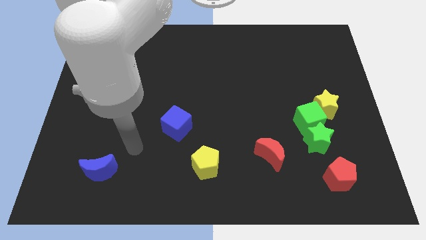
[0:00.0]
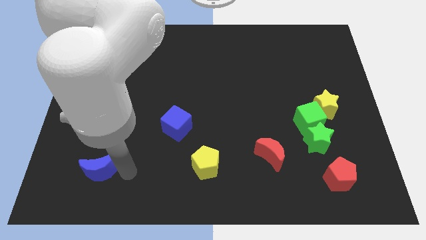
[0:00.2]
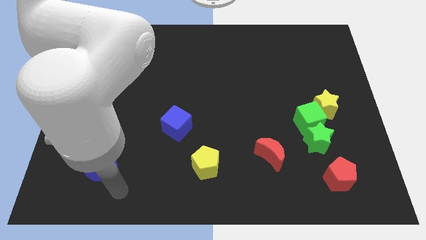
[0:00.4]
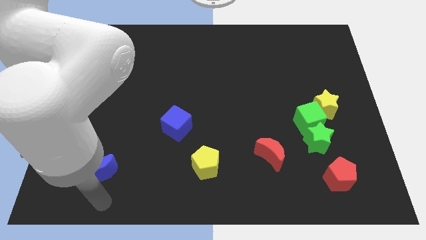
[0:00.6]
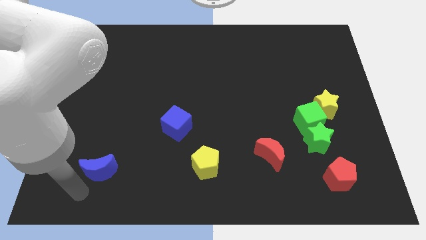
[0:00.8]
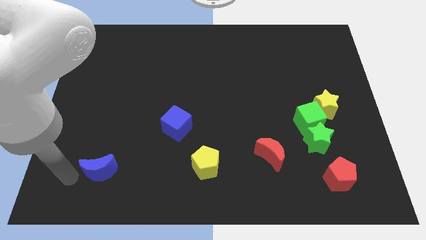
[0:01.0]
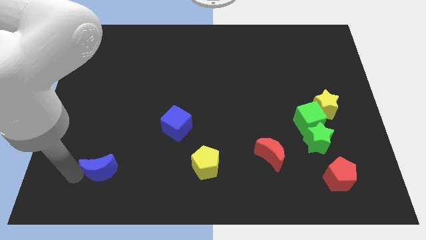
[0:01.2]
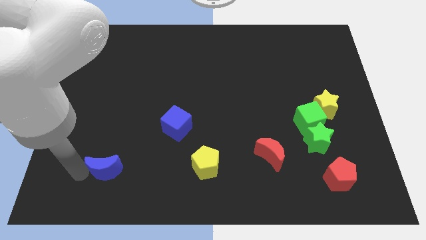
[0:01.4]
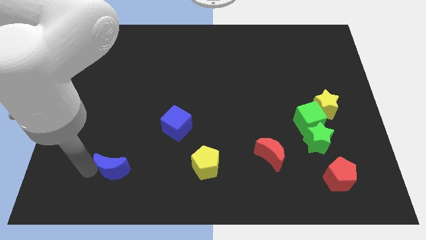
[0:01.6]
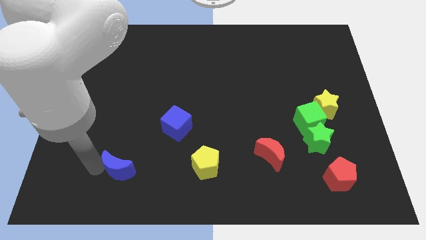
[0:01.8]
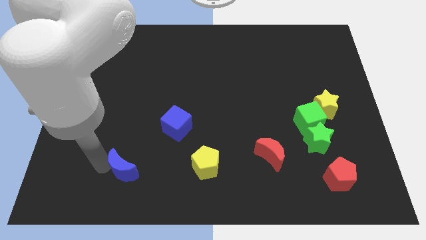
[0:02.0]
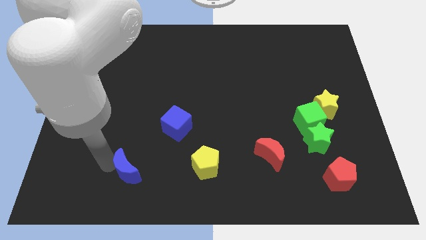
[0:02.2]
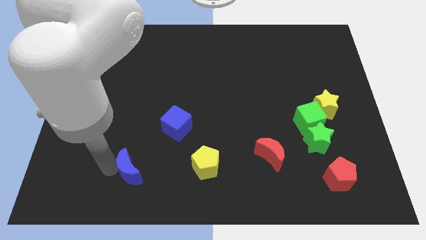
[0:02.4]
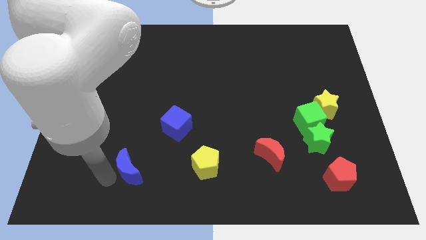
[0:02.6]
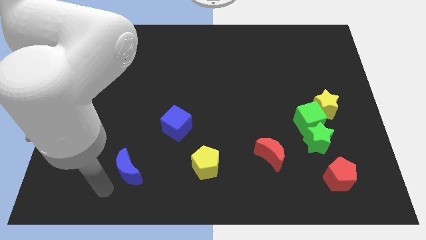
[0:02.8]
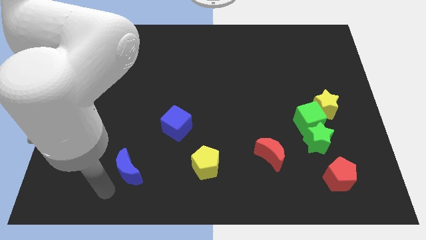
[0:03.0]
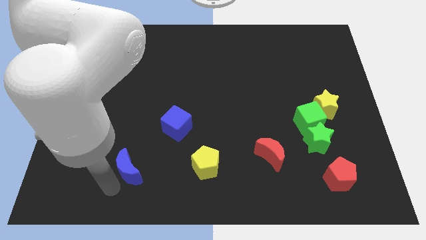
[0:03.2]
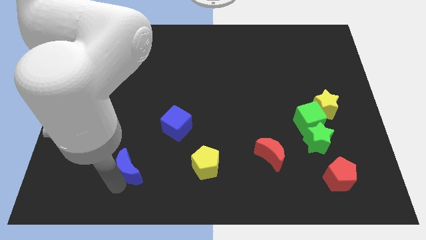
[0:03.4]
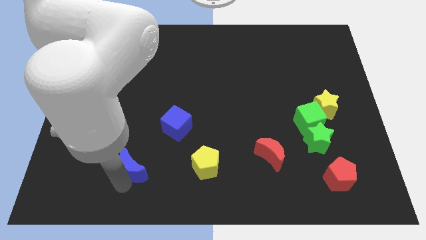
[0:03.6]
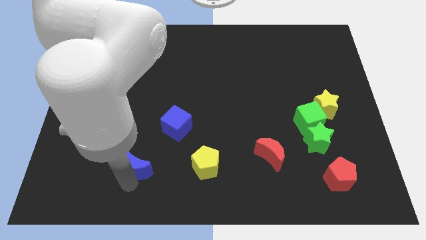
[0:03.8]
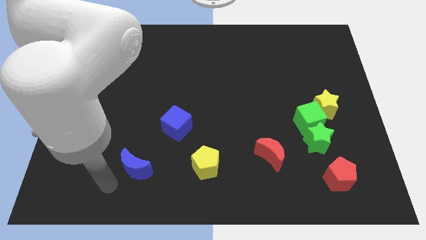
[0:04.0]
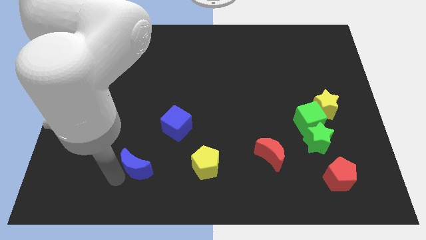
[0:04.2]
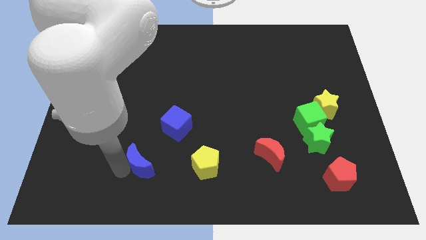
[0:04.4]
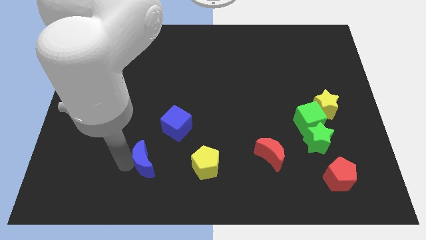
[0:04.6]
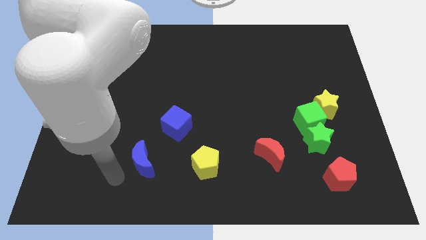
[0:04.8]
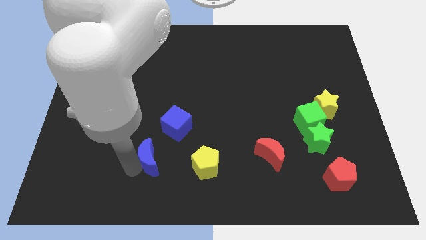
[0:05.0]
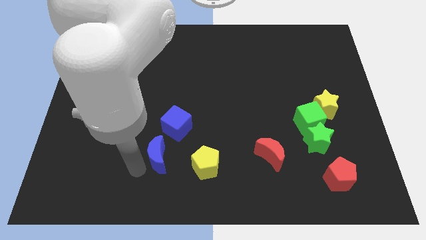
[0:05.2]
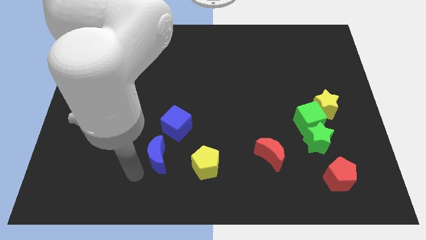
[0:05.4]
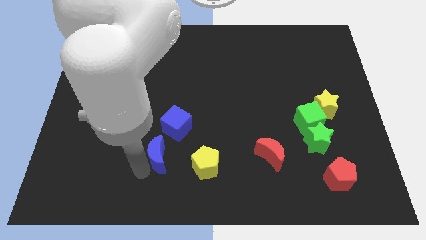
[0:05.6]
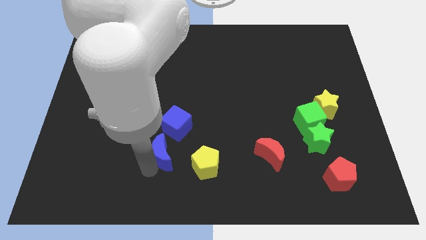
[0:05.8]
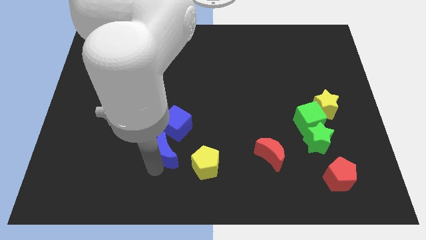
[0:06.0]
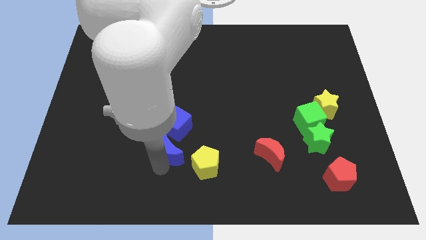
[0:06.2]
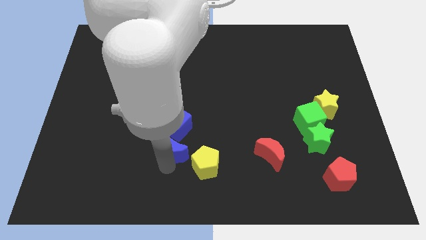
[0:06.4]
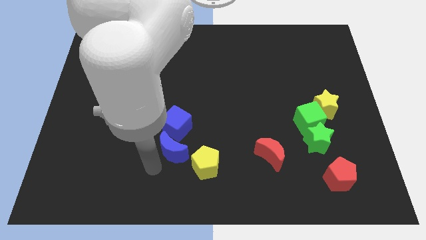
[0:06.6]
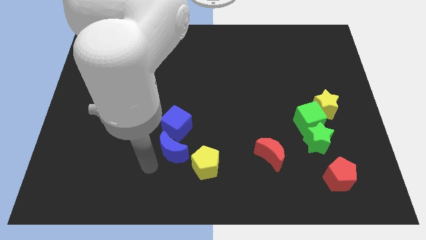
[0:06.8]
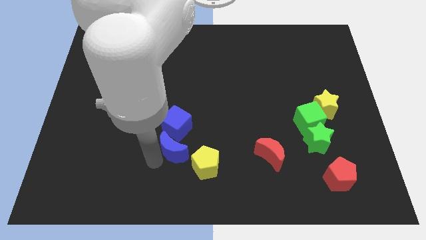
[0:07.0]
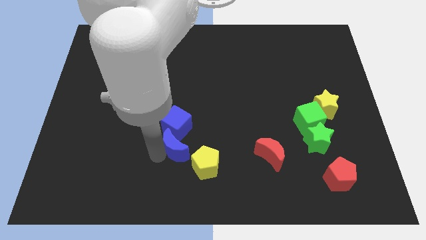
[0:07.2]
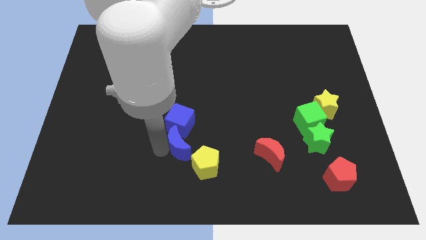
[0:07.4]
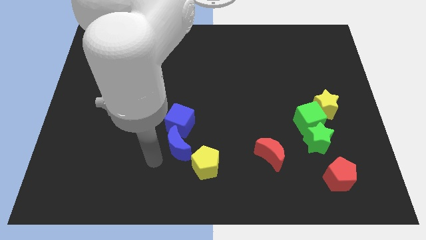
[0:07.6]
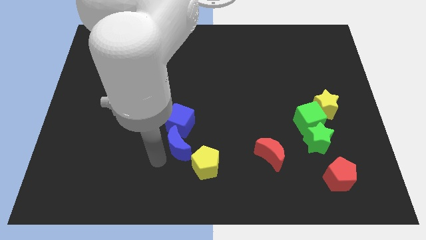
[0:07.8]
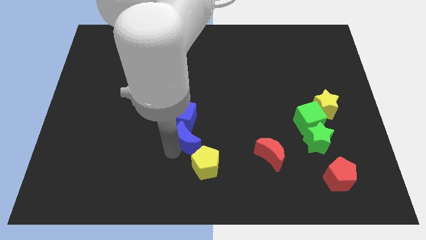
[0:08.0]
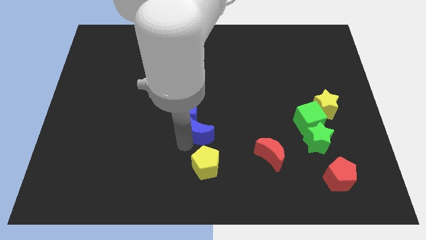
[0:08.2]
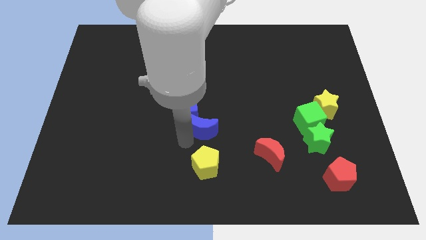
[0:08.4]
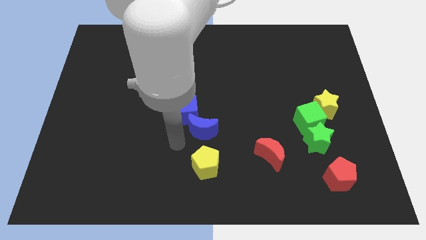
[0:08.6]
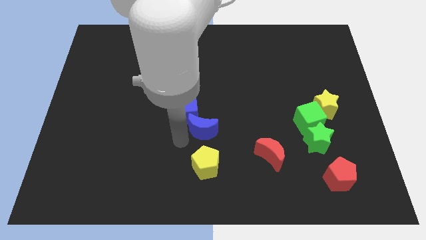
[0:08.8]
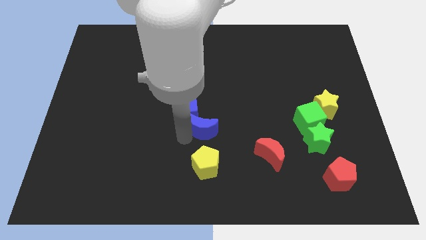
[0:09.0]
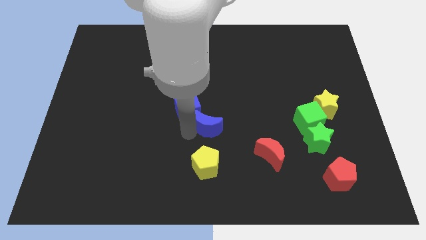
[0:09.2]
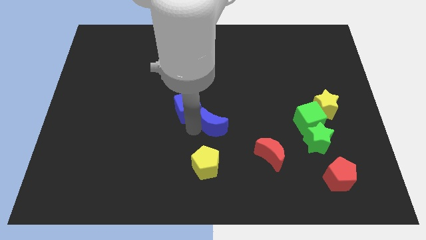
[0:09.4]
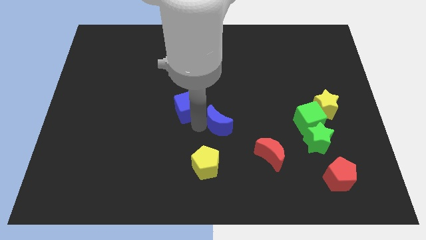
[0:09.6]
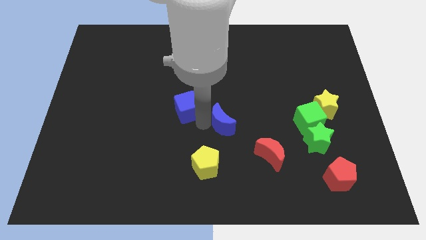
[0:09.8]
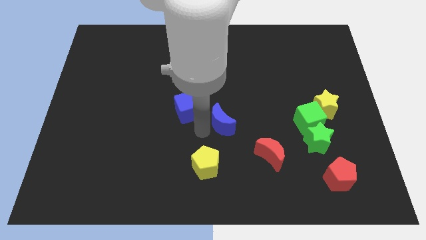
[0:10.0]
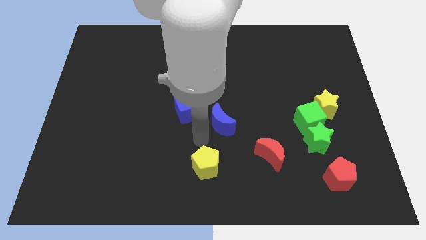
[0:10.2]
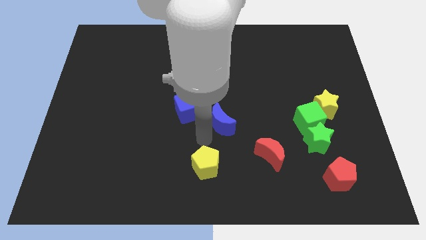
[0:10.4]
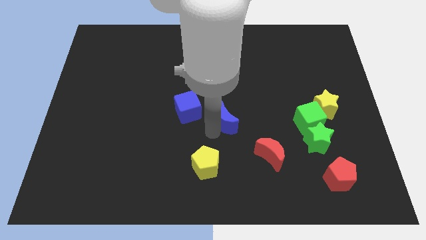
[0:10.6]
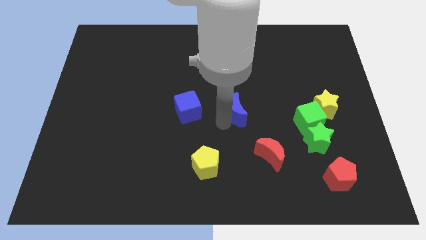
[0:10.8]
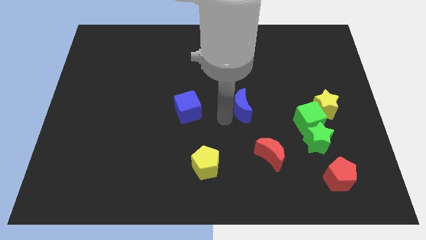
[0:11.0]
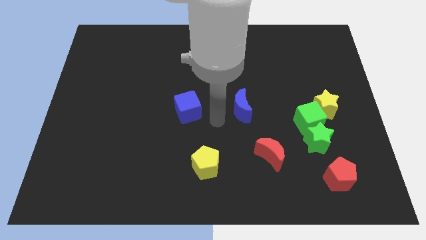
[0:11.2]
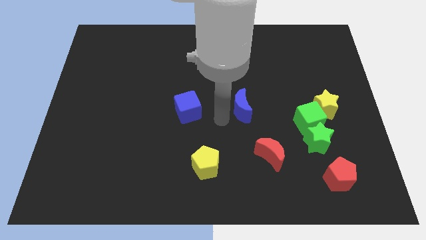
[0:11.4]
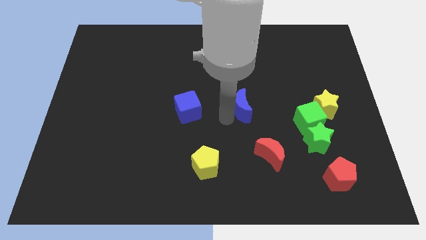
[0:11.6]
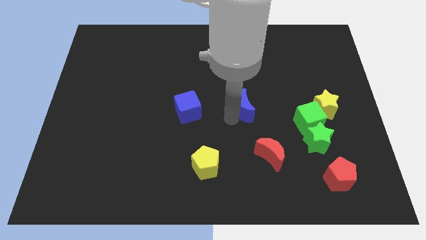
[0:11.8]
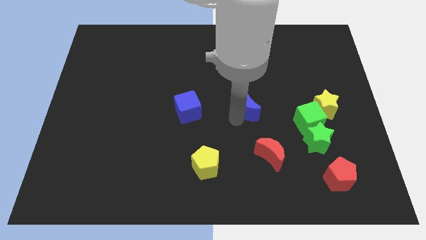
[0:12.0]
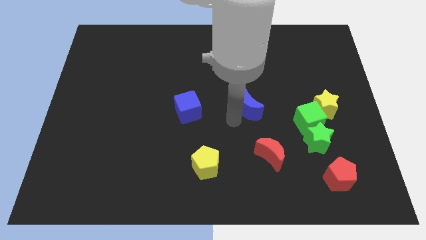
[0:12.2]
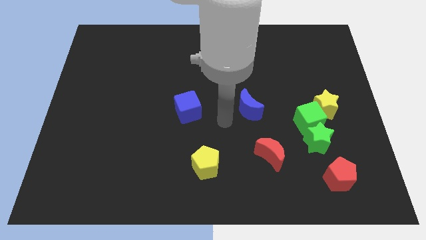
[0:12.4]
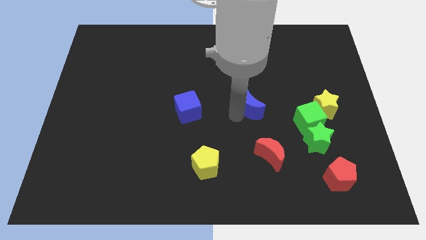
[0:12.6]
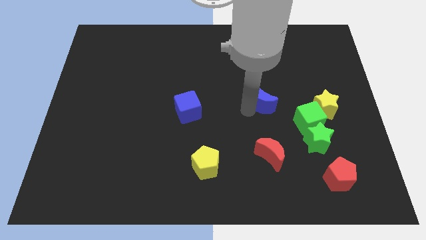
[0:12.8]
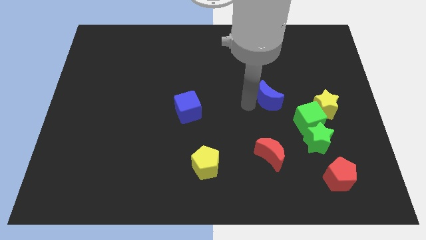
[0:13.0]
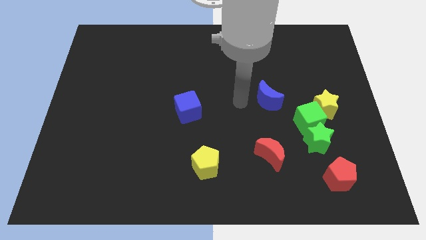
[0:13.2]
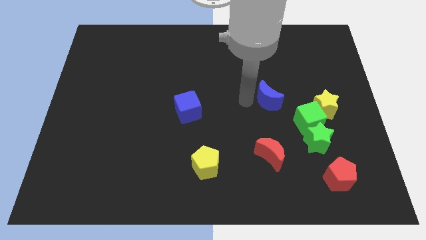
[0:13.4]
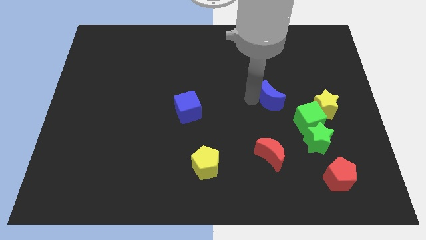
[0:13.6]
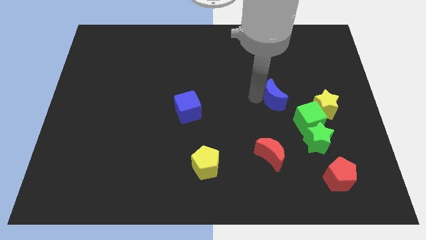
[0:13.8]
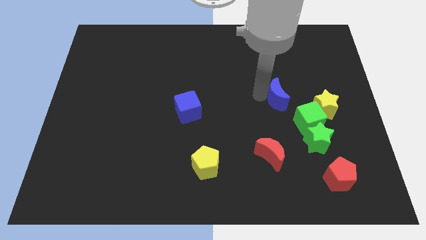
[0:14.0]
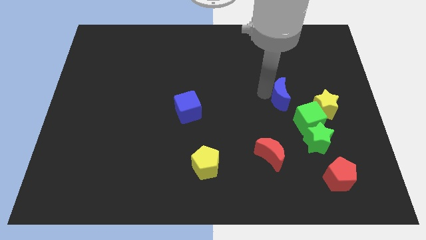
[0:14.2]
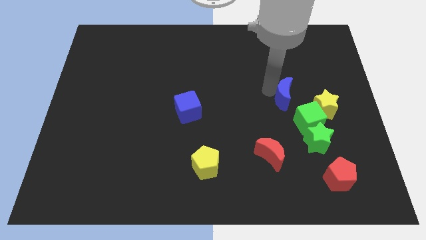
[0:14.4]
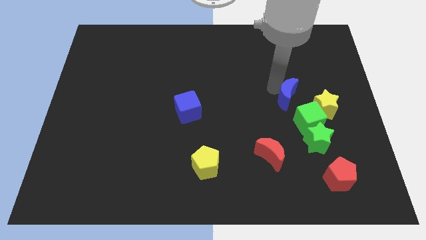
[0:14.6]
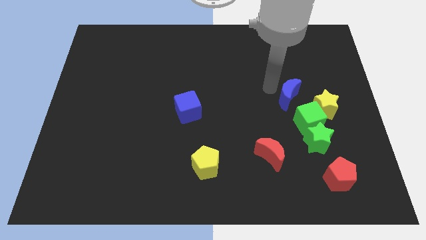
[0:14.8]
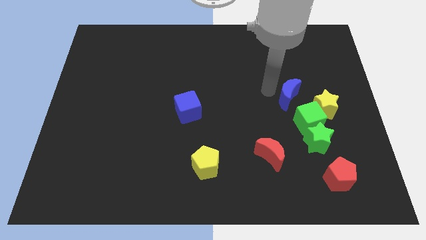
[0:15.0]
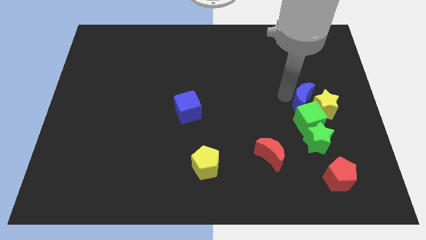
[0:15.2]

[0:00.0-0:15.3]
slide the blue moon next to the yellow star
